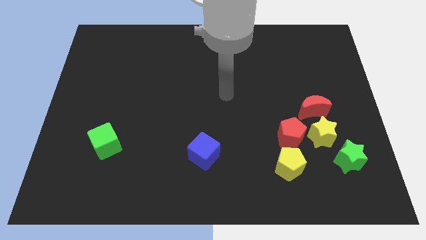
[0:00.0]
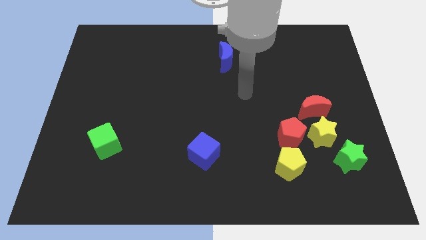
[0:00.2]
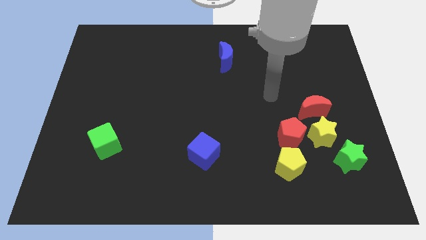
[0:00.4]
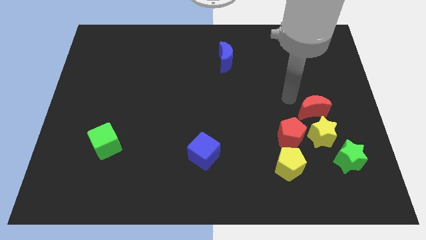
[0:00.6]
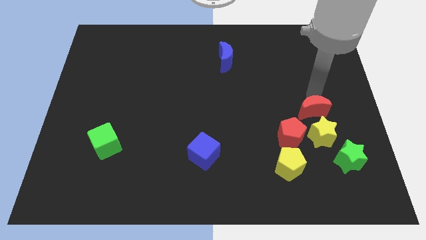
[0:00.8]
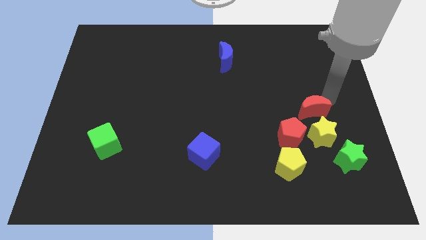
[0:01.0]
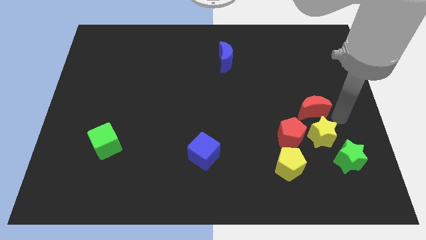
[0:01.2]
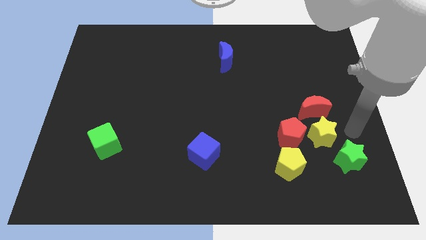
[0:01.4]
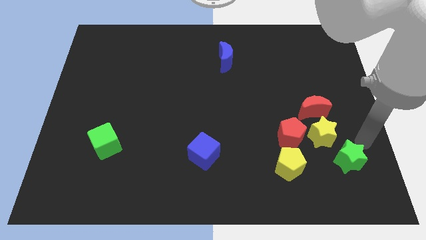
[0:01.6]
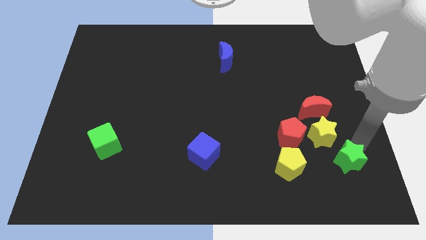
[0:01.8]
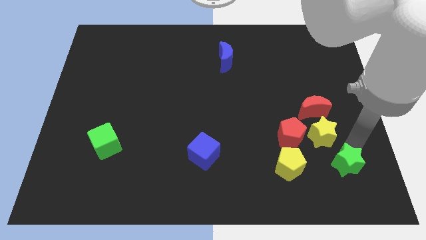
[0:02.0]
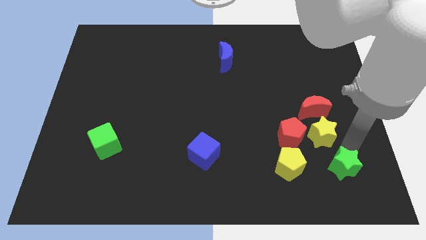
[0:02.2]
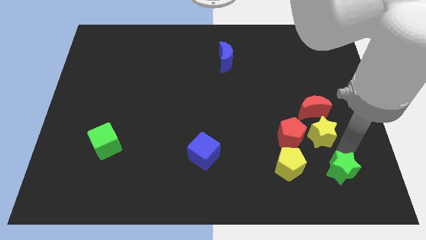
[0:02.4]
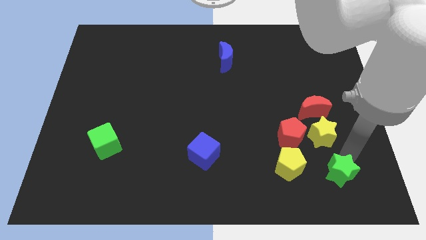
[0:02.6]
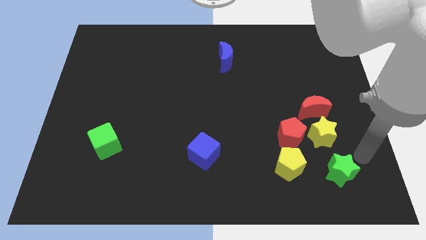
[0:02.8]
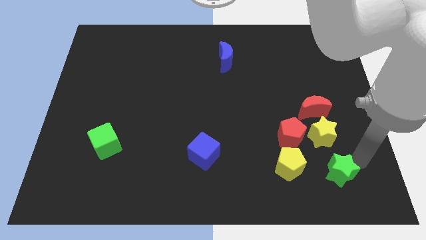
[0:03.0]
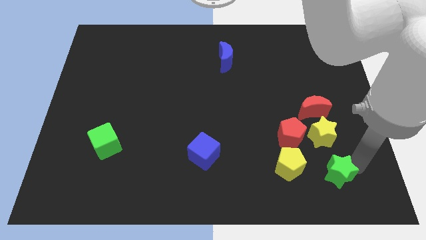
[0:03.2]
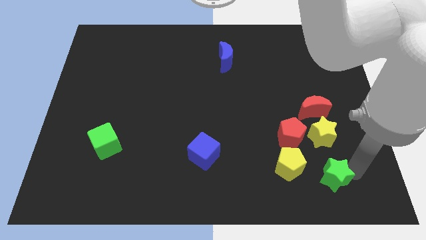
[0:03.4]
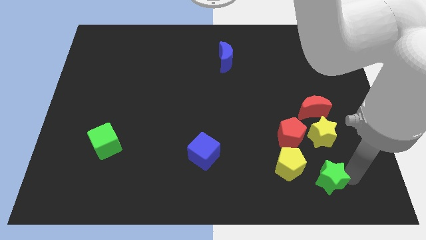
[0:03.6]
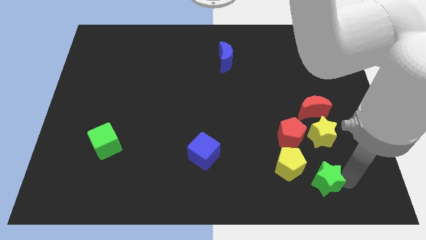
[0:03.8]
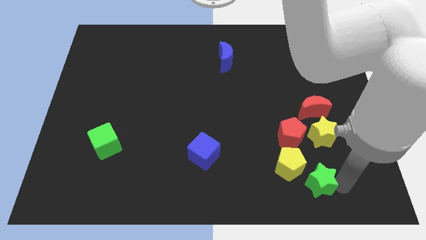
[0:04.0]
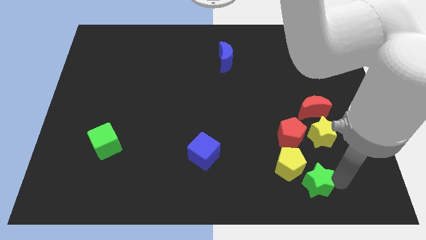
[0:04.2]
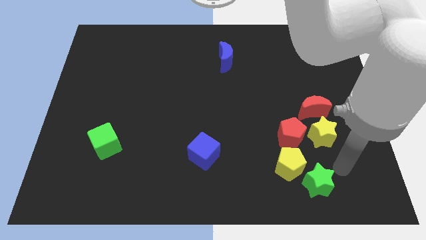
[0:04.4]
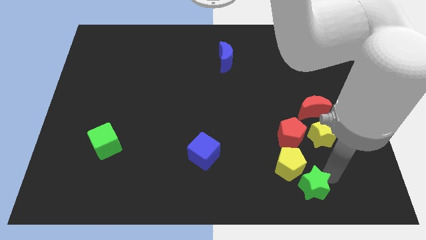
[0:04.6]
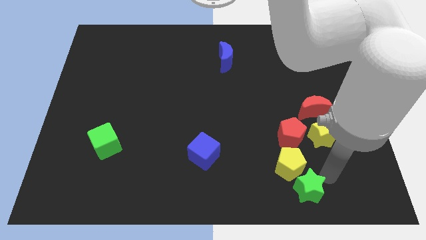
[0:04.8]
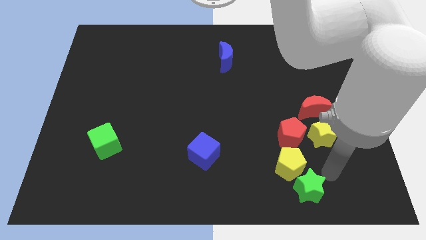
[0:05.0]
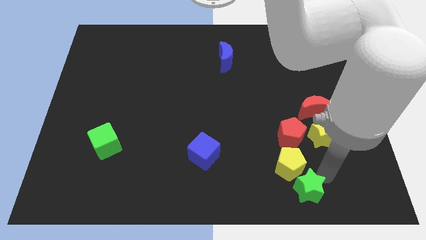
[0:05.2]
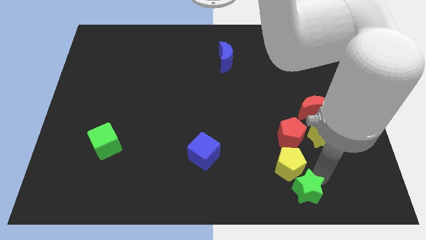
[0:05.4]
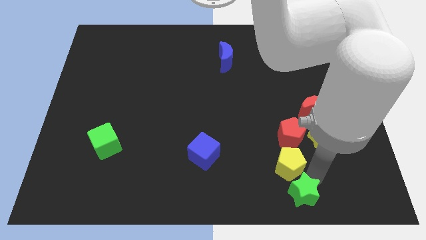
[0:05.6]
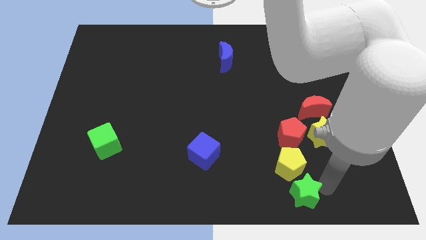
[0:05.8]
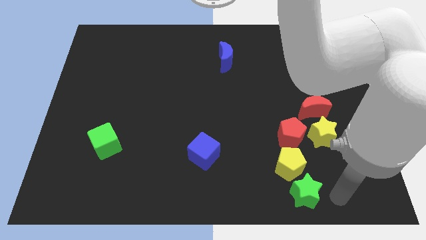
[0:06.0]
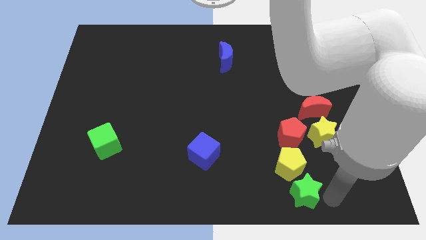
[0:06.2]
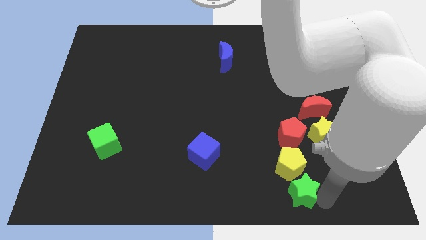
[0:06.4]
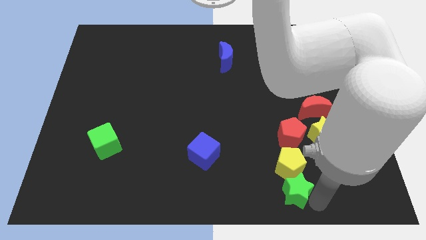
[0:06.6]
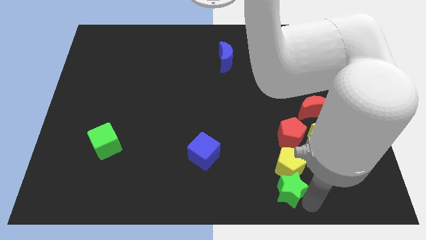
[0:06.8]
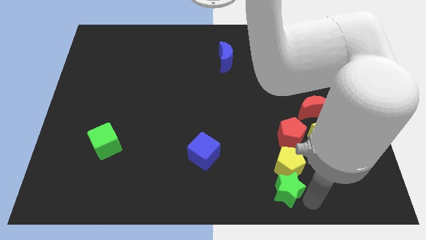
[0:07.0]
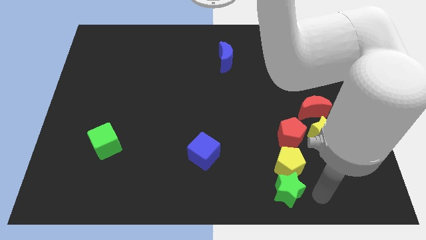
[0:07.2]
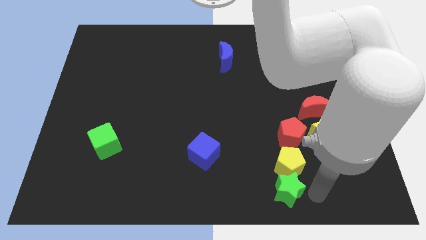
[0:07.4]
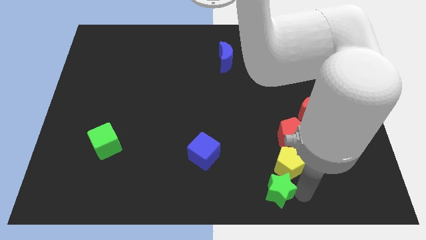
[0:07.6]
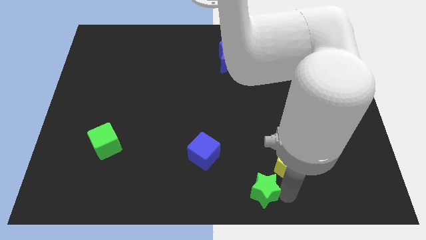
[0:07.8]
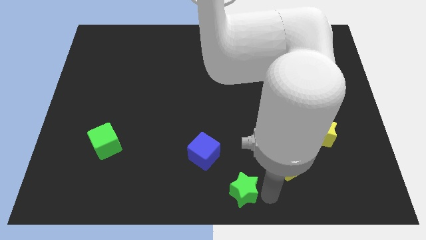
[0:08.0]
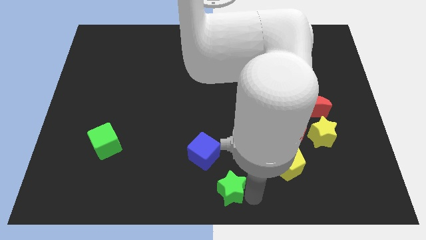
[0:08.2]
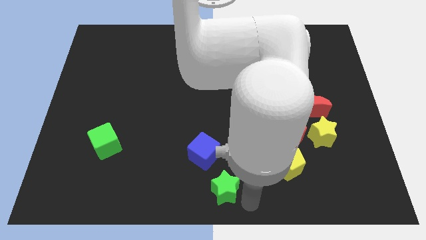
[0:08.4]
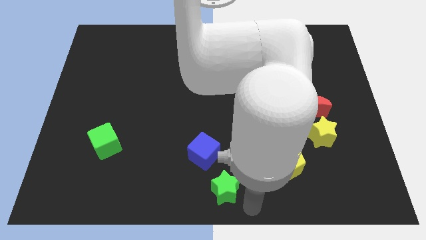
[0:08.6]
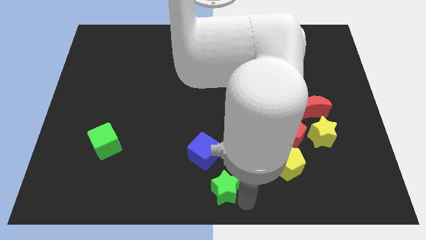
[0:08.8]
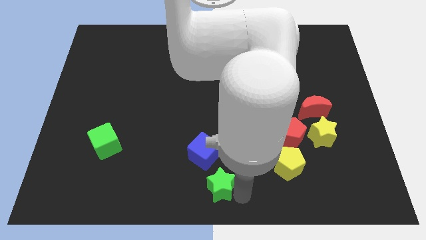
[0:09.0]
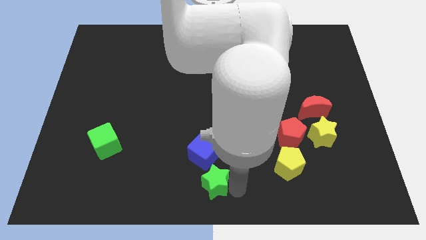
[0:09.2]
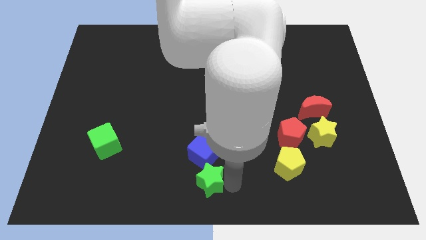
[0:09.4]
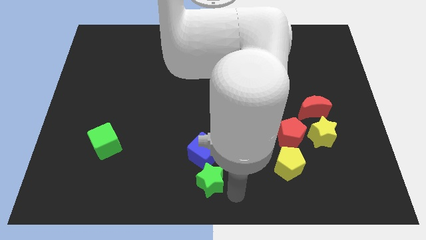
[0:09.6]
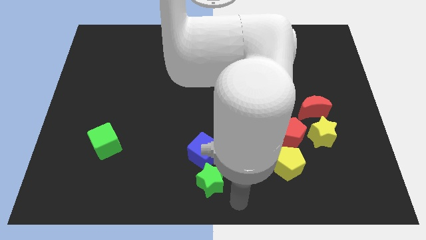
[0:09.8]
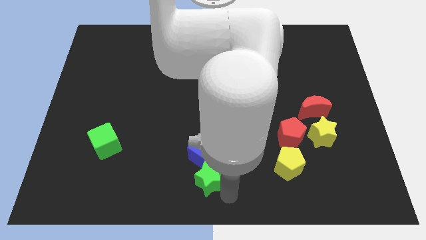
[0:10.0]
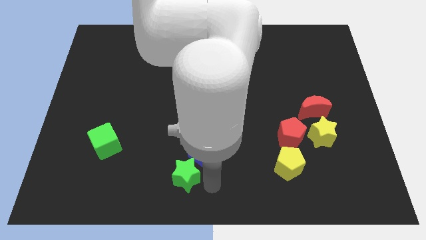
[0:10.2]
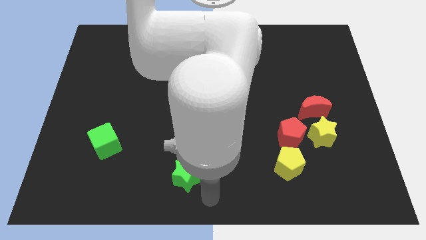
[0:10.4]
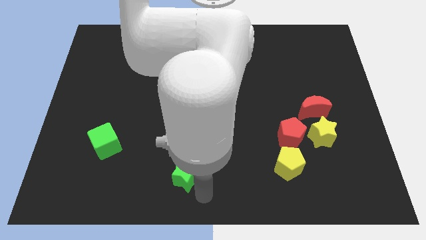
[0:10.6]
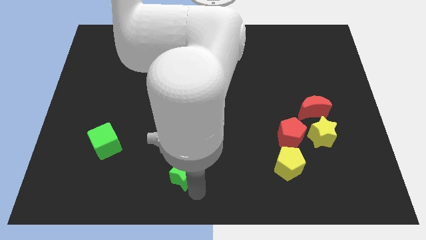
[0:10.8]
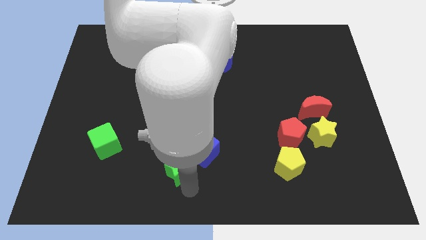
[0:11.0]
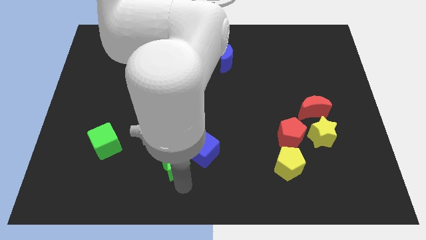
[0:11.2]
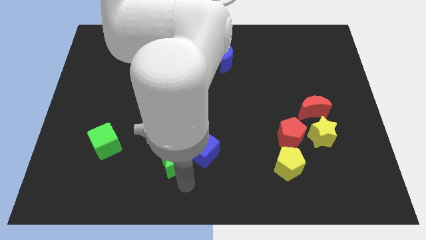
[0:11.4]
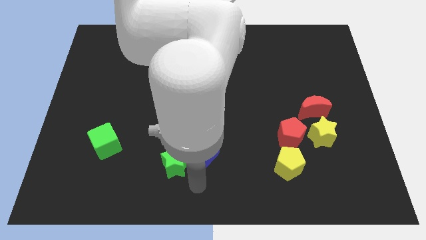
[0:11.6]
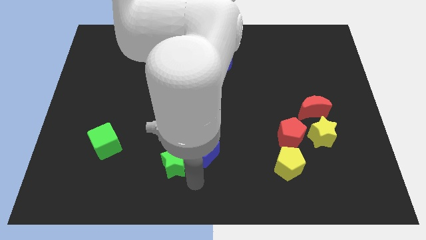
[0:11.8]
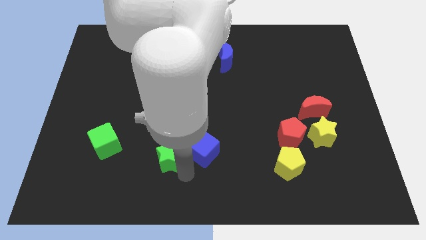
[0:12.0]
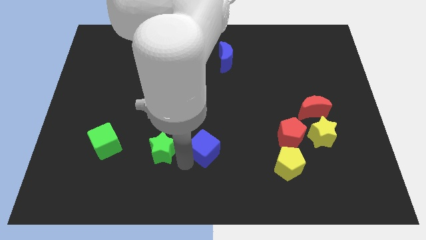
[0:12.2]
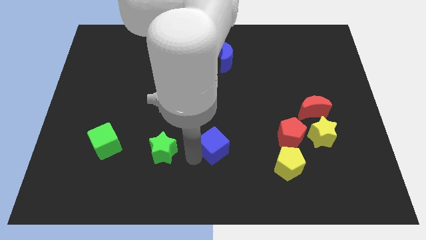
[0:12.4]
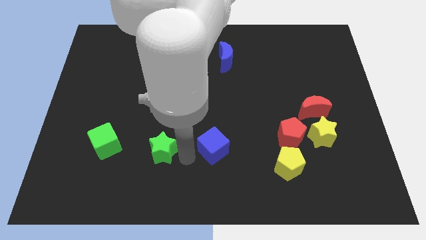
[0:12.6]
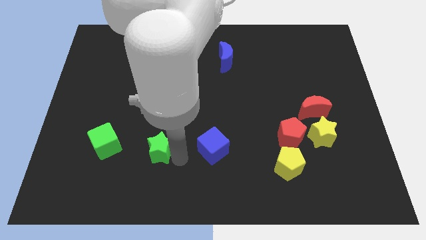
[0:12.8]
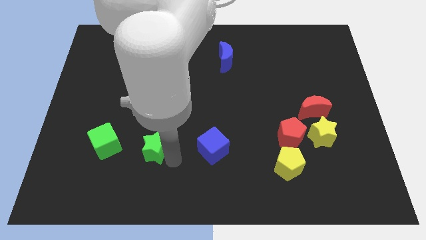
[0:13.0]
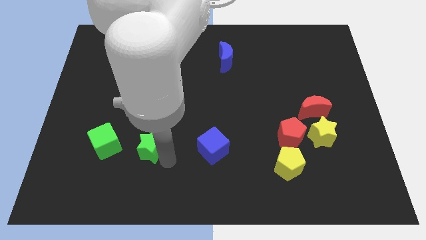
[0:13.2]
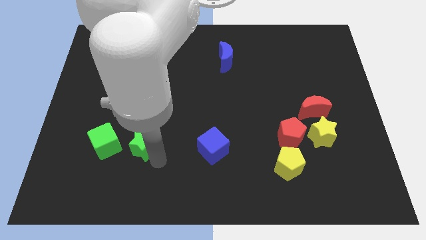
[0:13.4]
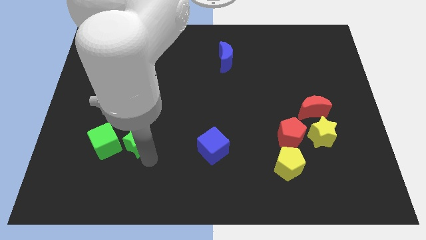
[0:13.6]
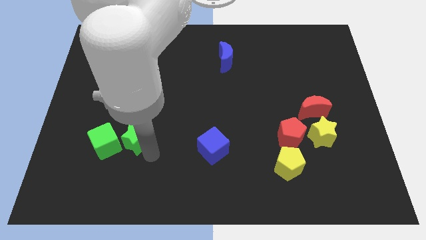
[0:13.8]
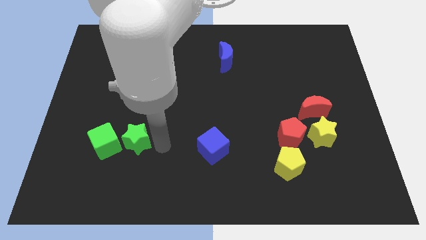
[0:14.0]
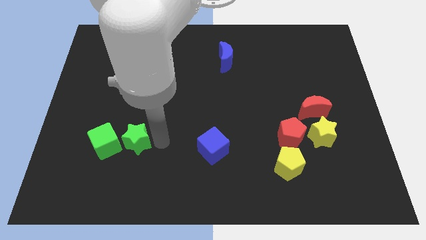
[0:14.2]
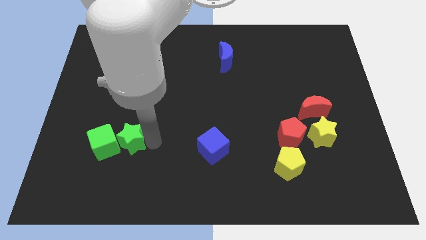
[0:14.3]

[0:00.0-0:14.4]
push the green star to the green cube
